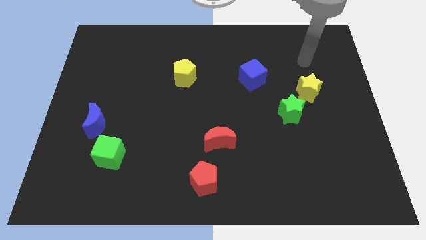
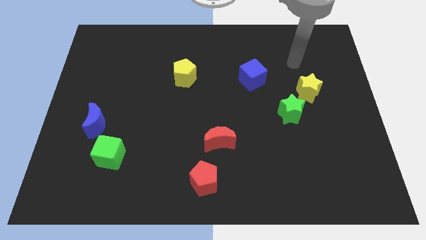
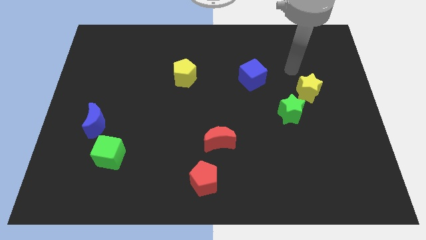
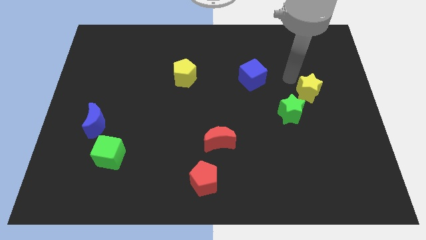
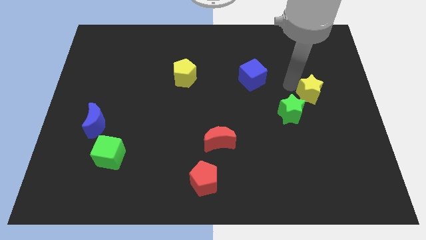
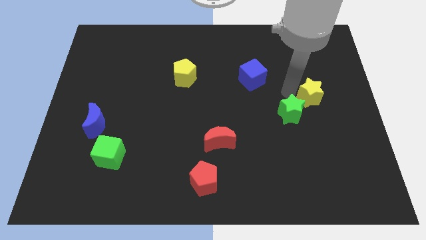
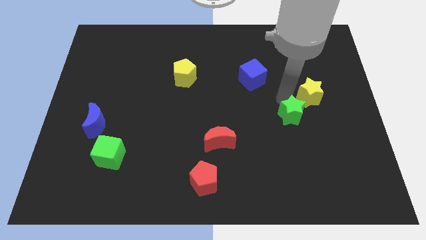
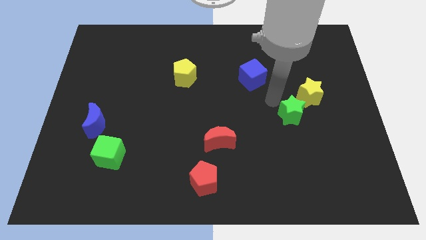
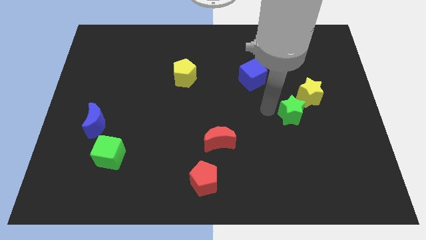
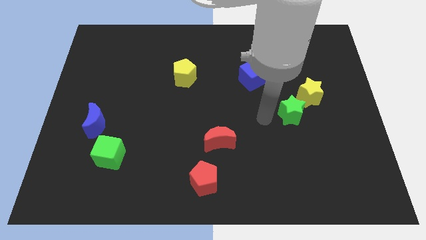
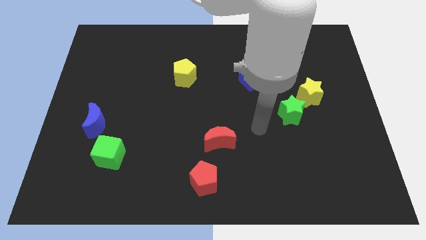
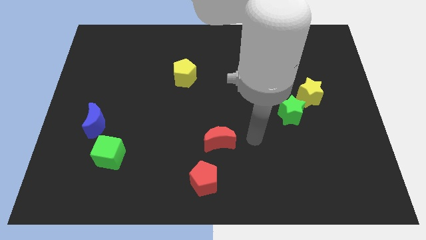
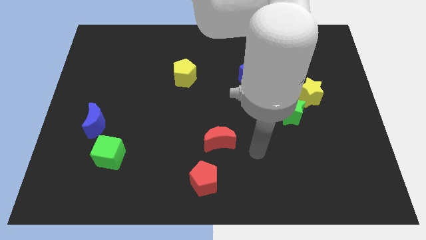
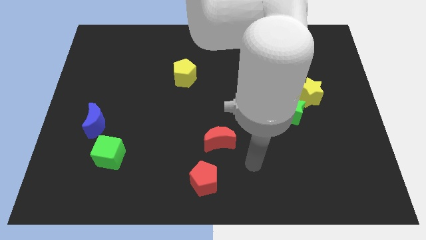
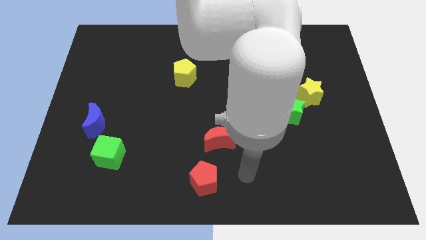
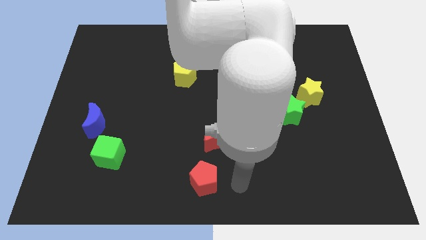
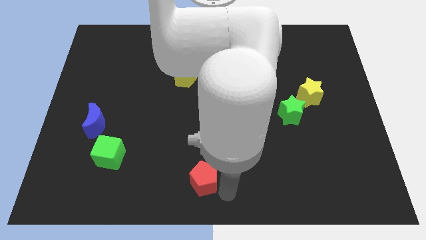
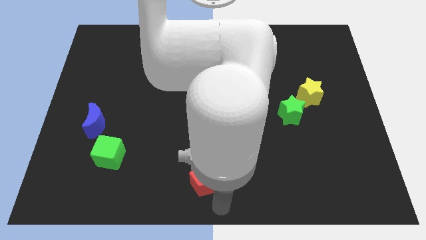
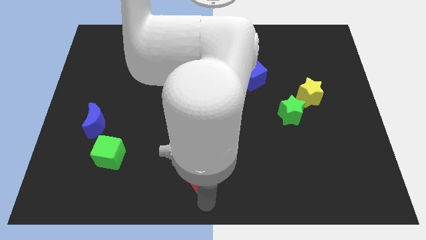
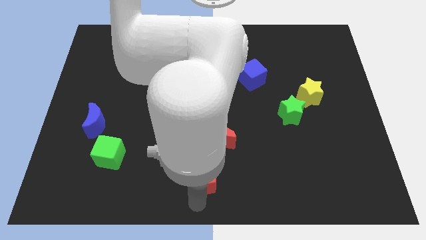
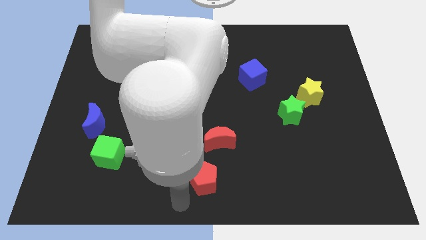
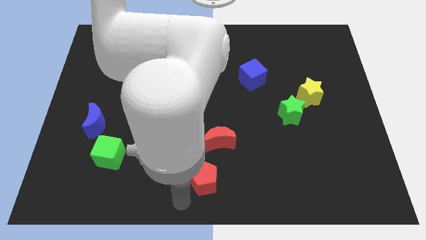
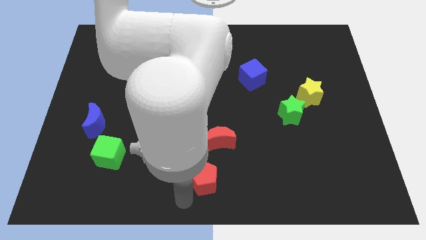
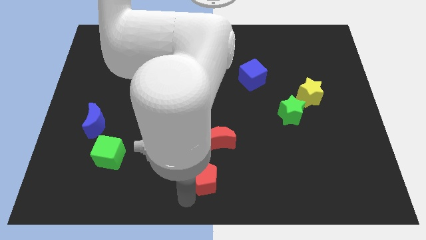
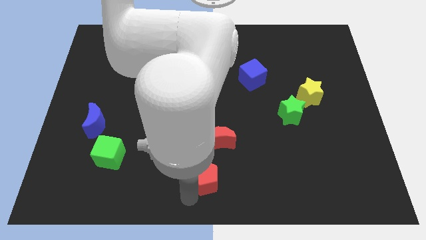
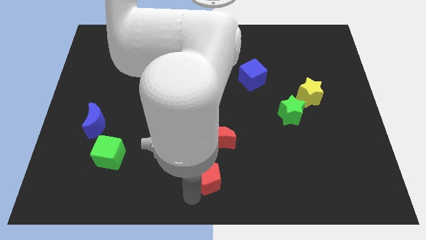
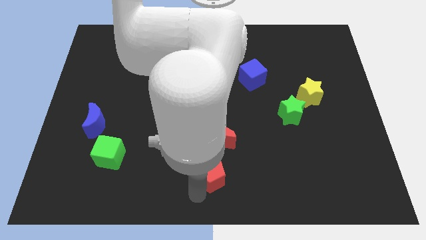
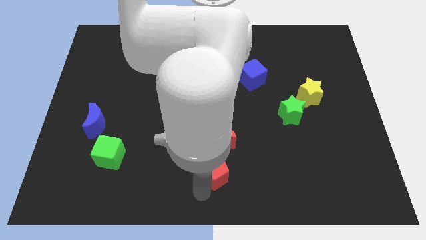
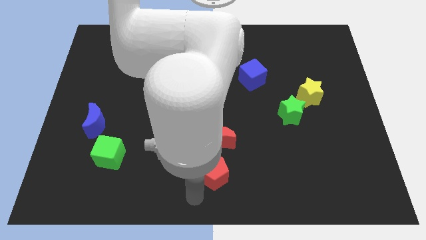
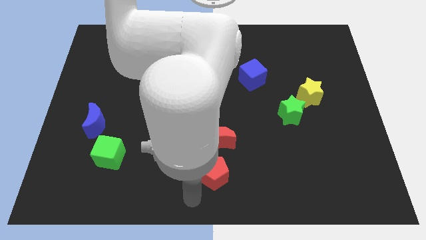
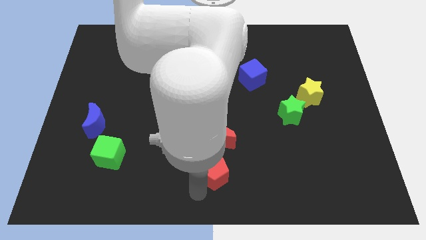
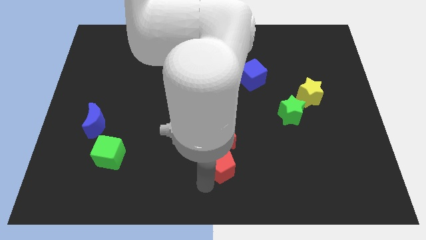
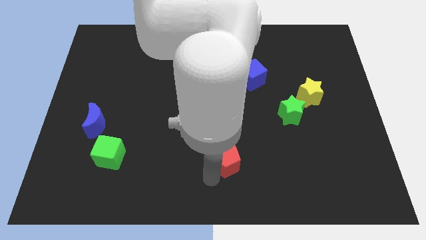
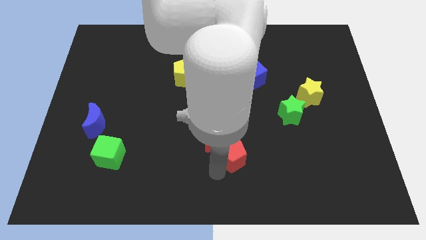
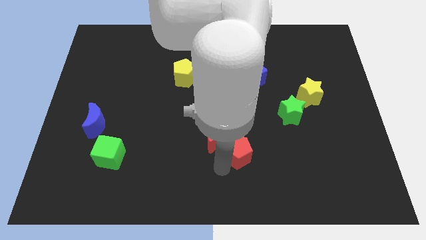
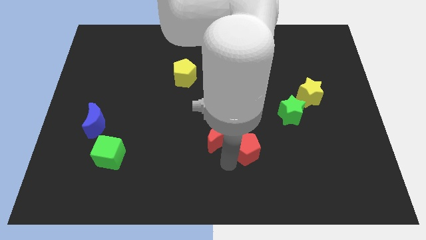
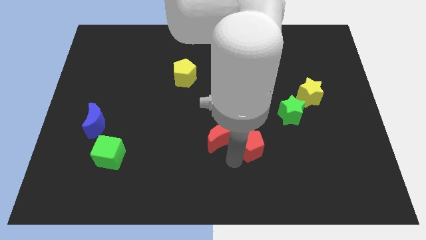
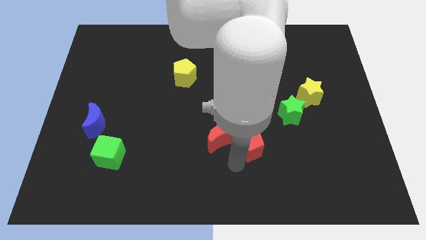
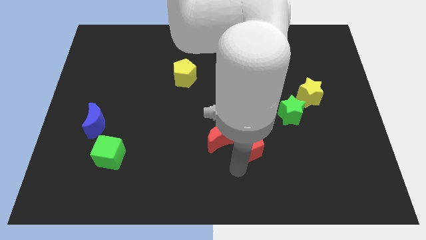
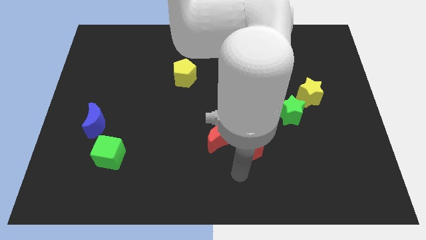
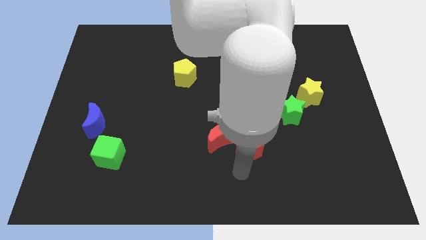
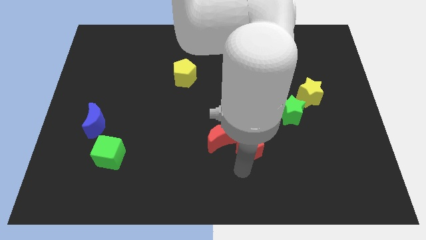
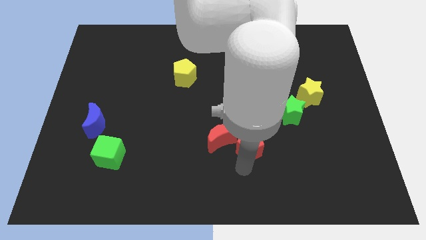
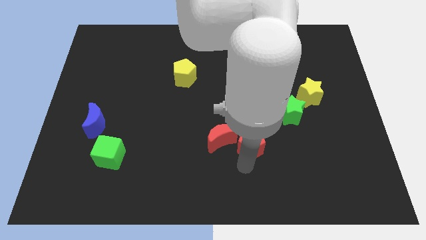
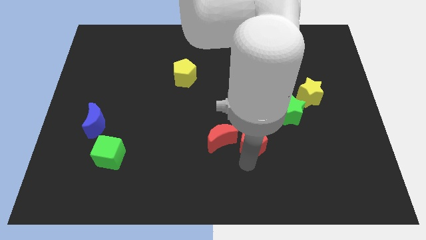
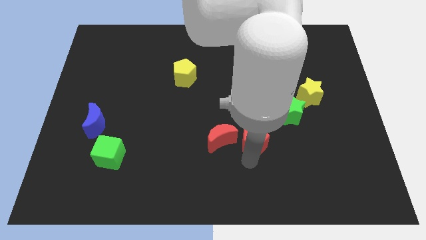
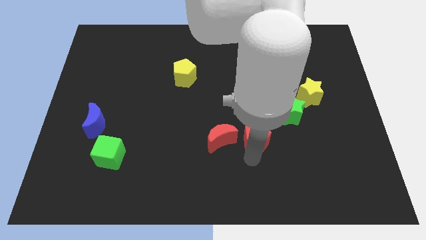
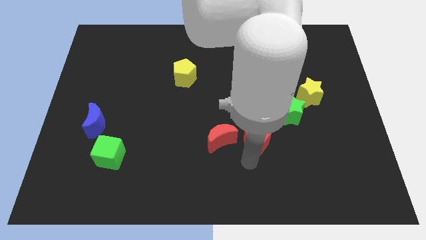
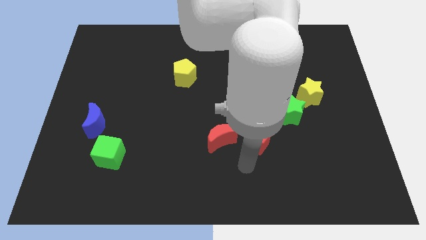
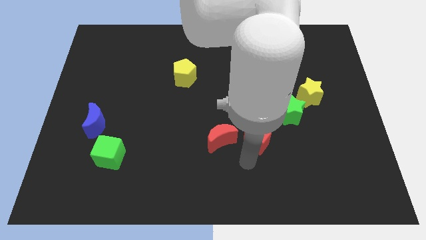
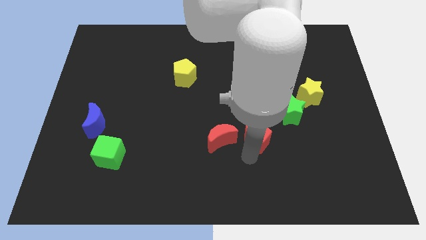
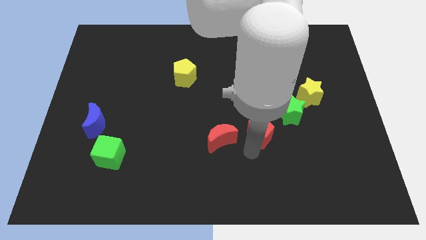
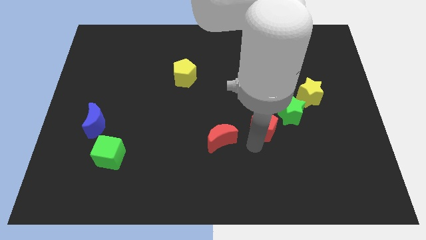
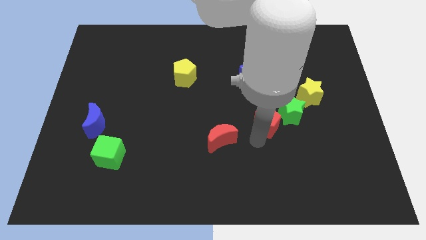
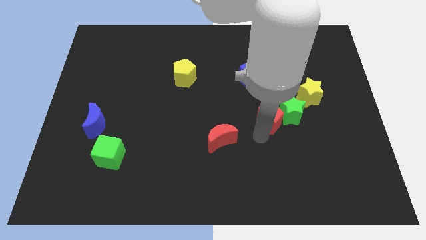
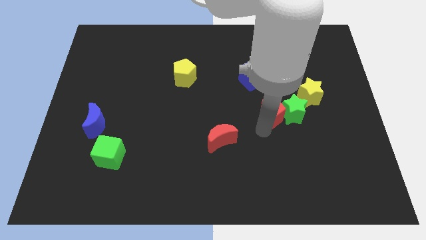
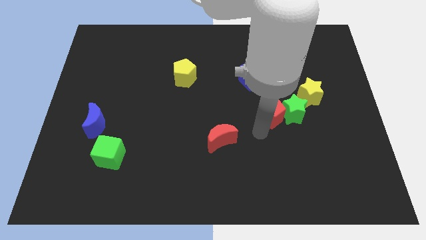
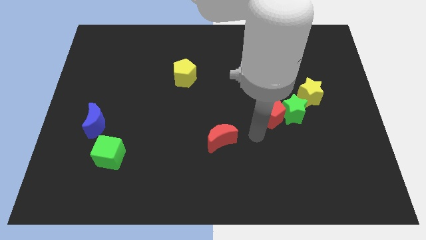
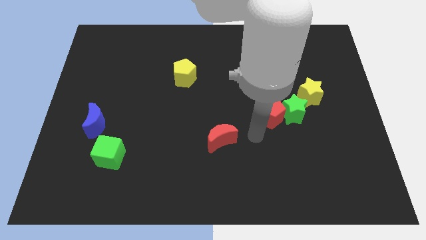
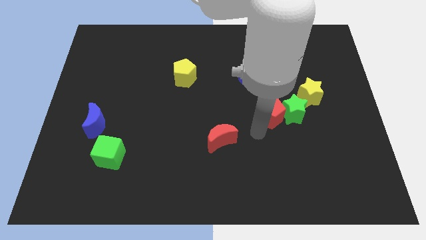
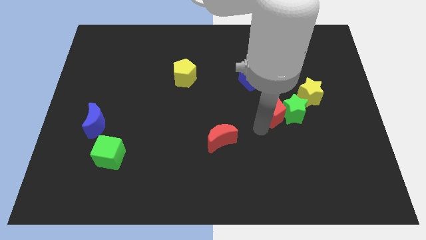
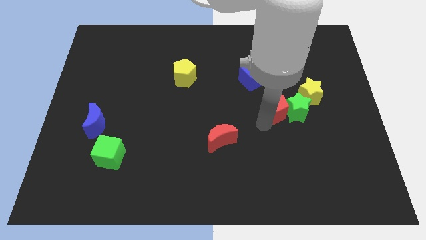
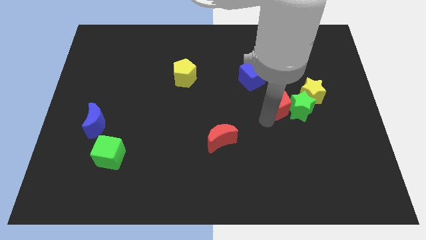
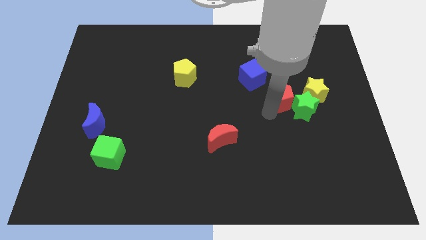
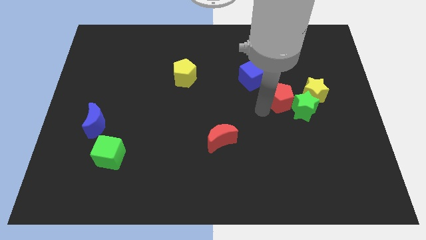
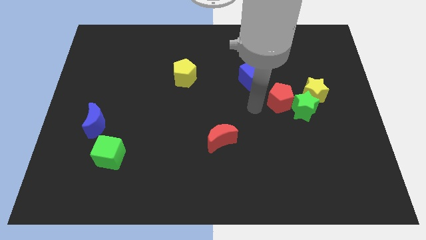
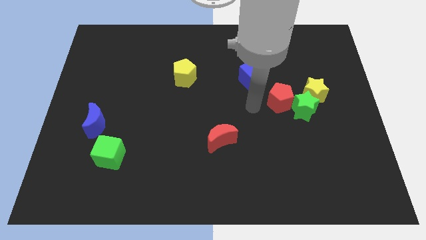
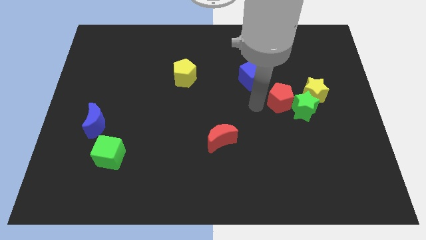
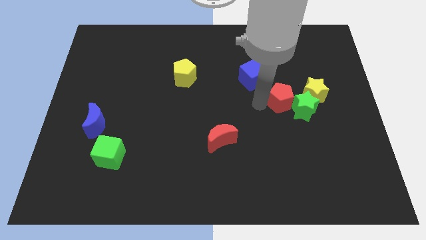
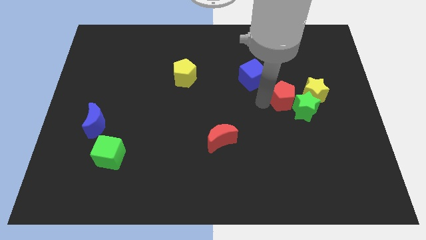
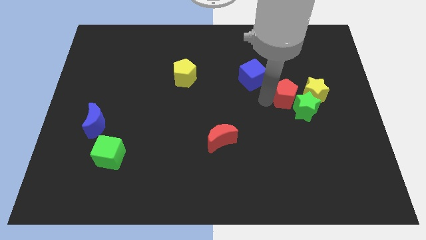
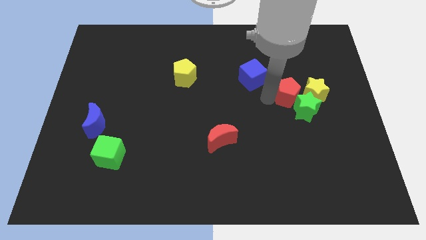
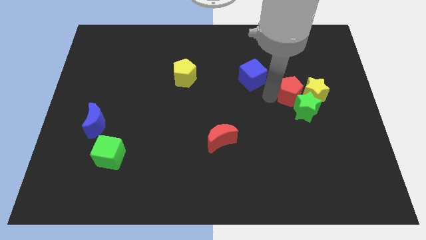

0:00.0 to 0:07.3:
push the red pentagon next to the yellow star
